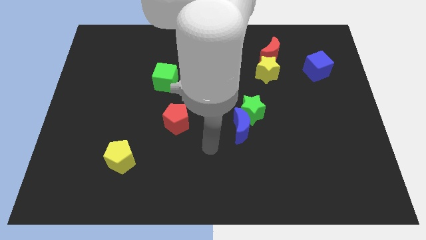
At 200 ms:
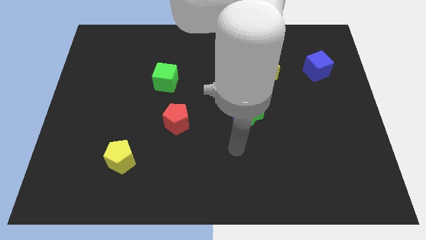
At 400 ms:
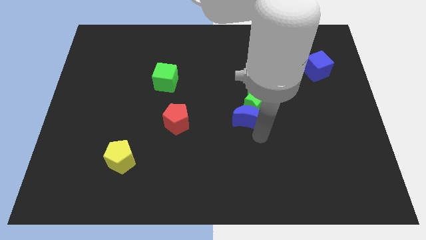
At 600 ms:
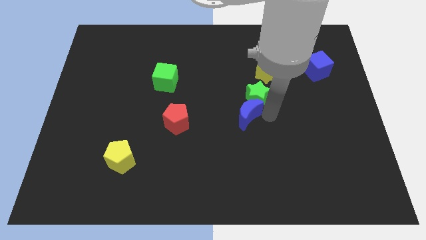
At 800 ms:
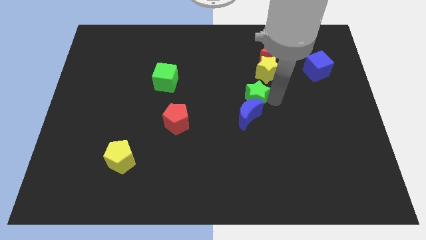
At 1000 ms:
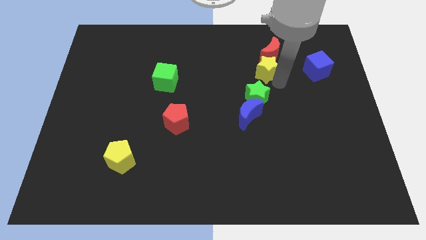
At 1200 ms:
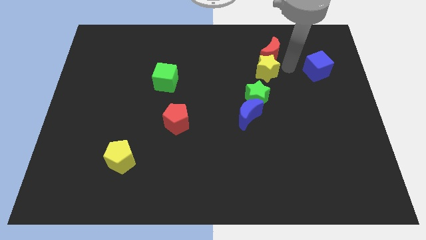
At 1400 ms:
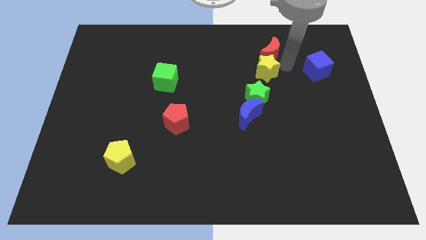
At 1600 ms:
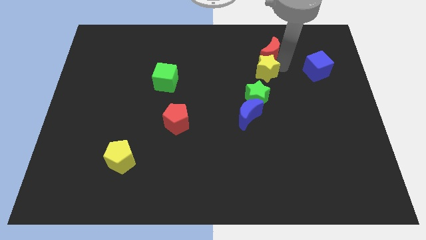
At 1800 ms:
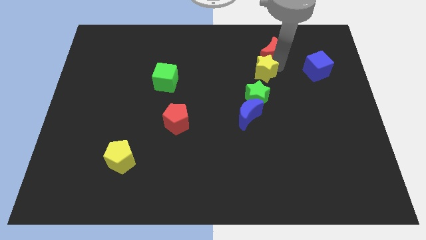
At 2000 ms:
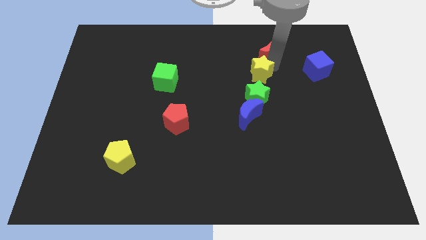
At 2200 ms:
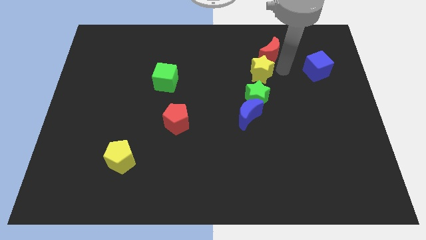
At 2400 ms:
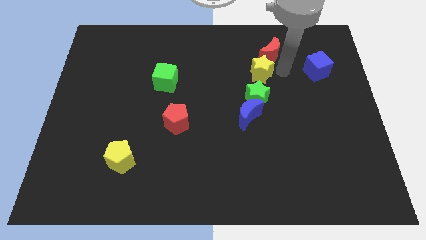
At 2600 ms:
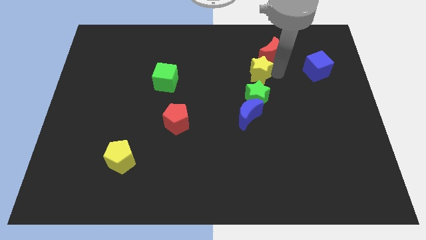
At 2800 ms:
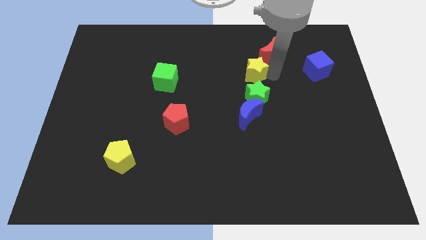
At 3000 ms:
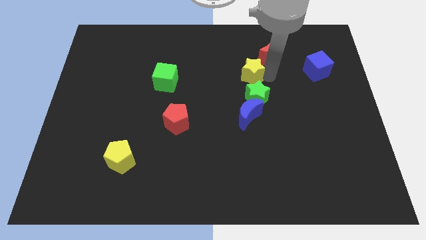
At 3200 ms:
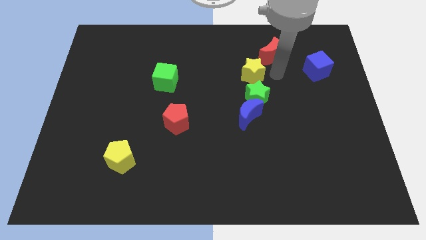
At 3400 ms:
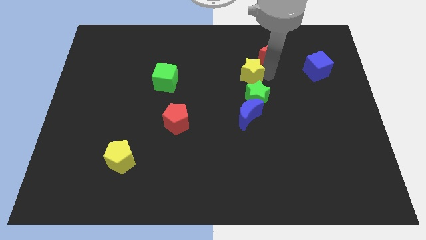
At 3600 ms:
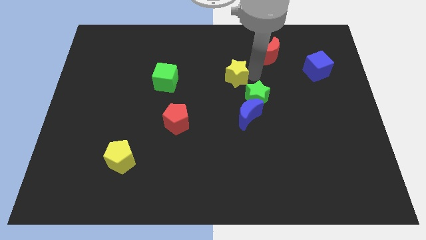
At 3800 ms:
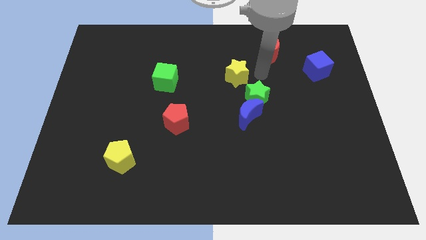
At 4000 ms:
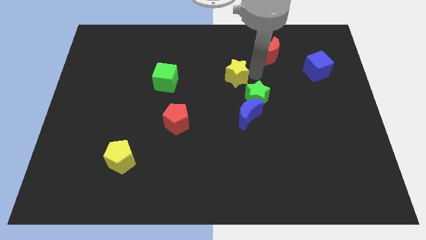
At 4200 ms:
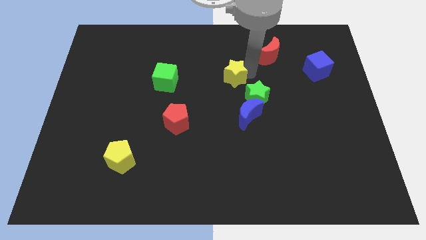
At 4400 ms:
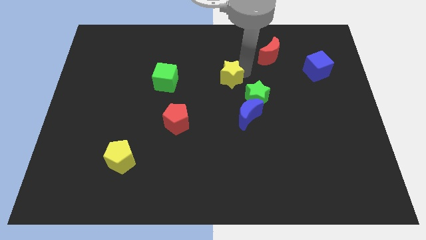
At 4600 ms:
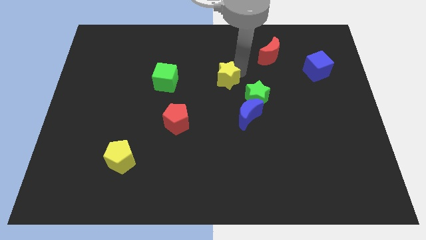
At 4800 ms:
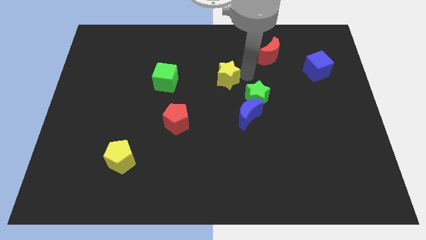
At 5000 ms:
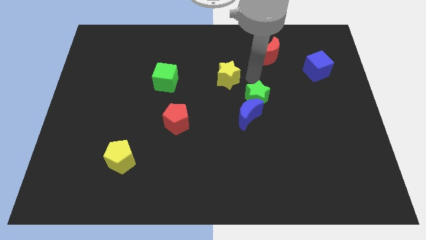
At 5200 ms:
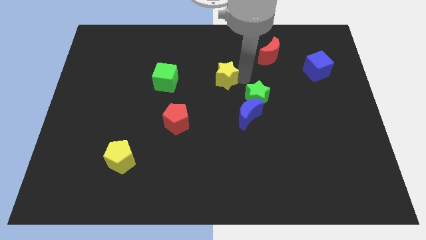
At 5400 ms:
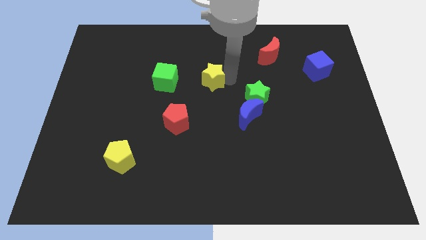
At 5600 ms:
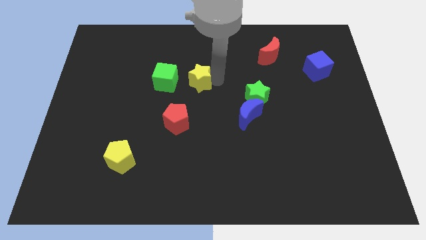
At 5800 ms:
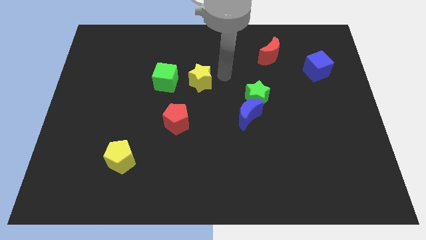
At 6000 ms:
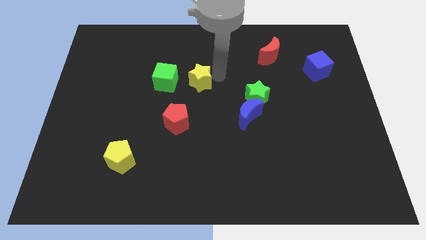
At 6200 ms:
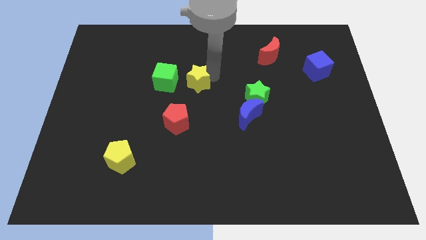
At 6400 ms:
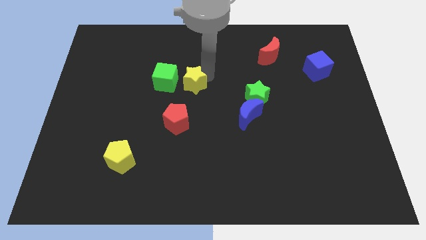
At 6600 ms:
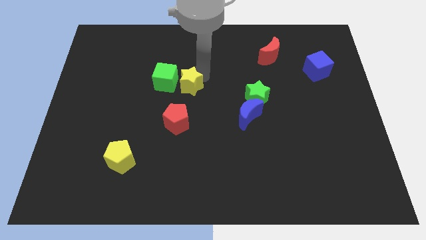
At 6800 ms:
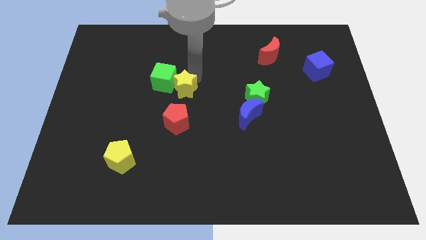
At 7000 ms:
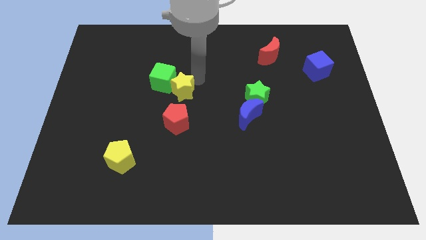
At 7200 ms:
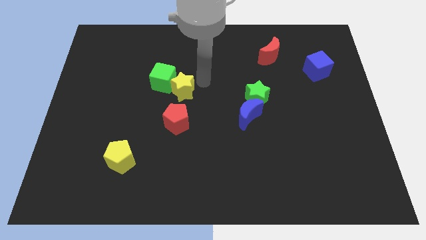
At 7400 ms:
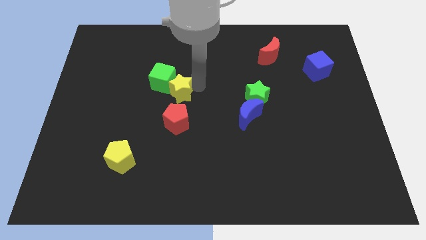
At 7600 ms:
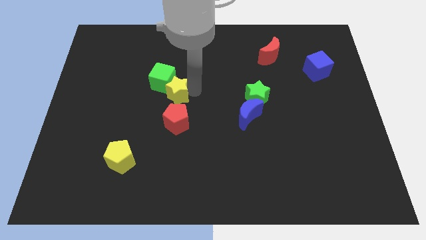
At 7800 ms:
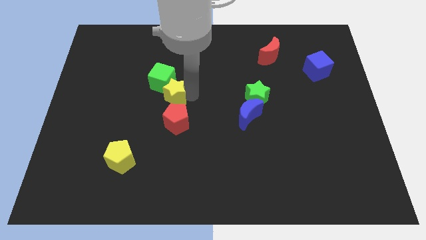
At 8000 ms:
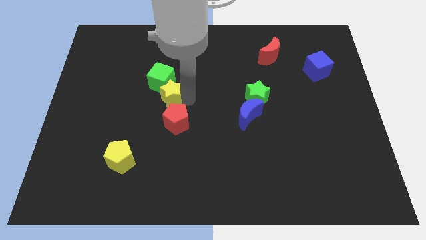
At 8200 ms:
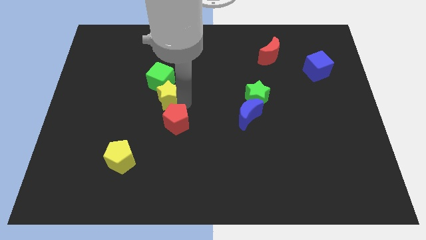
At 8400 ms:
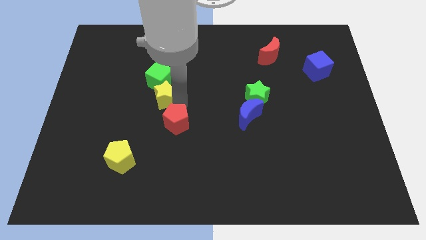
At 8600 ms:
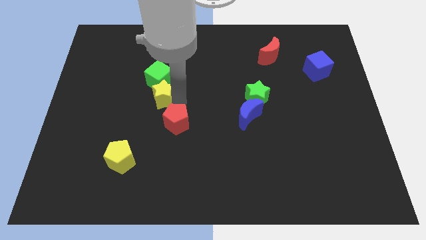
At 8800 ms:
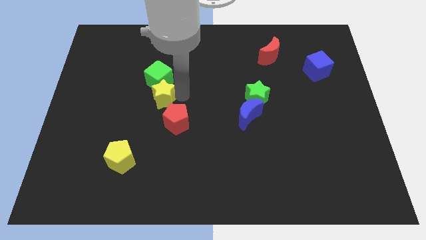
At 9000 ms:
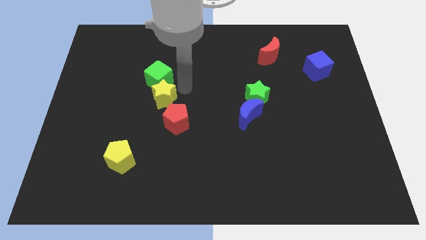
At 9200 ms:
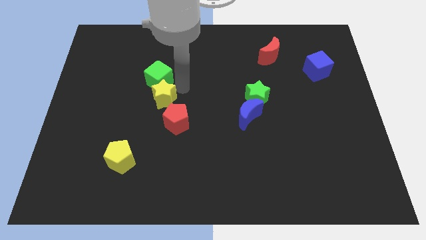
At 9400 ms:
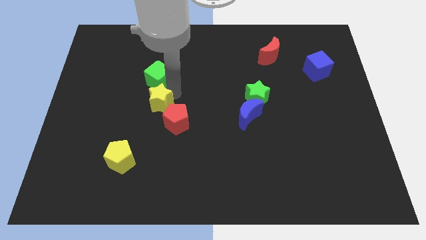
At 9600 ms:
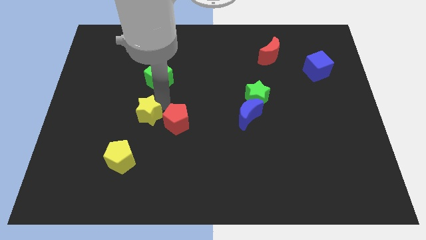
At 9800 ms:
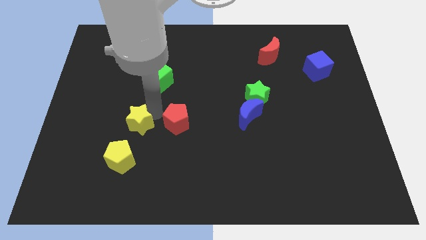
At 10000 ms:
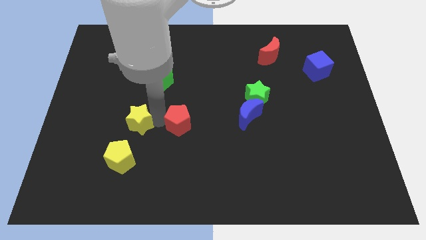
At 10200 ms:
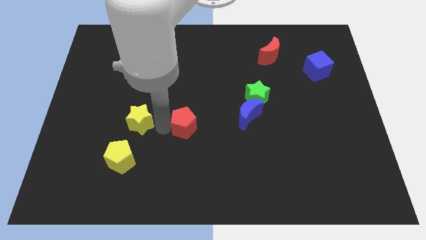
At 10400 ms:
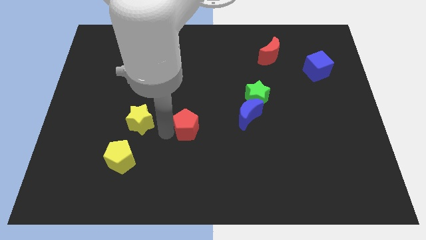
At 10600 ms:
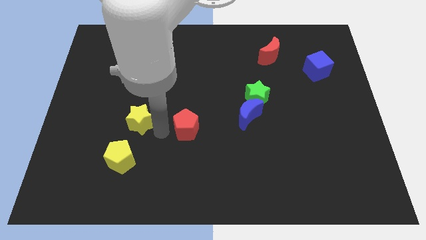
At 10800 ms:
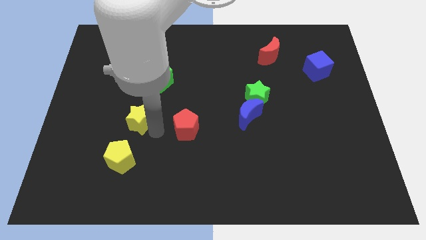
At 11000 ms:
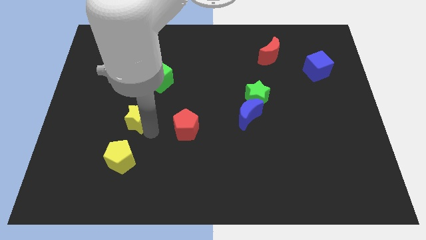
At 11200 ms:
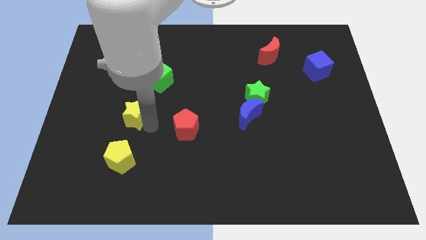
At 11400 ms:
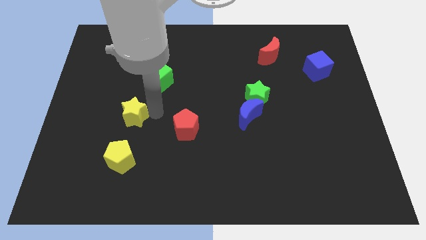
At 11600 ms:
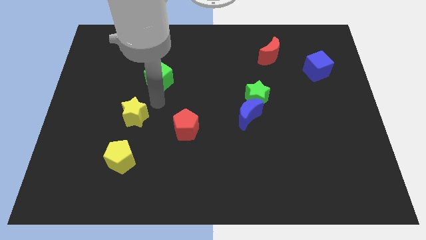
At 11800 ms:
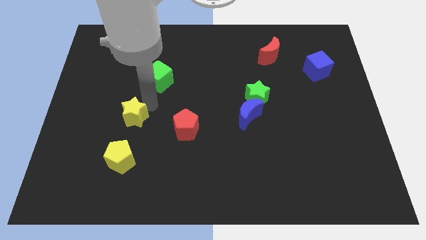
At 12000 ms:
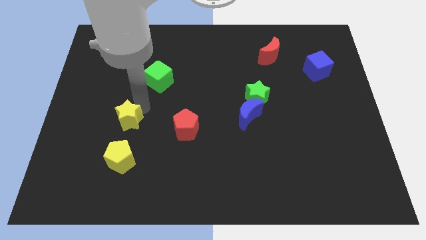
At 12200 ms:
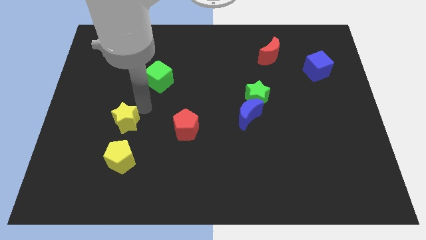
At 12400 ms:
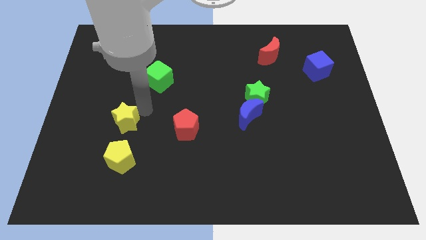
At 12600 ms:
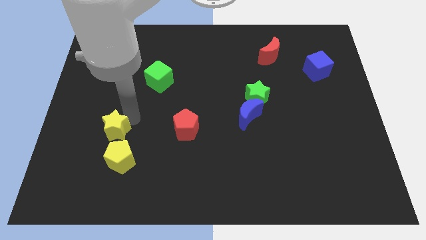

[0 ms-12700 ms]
put the yellow star diagonally up and to the left of the yellow pentagon
